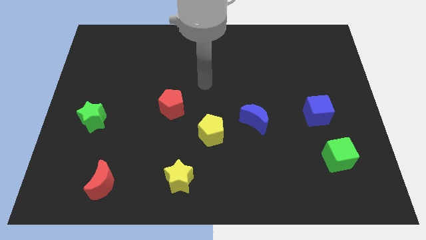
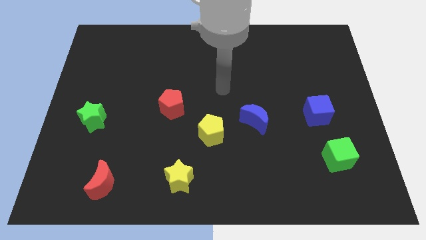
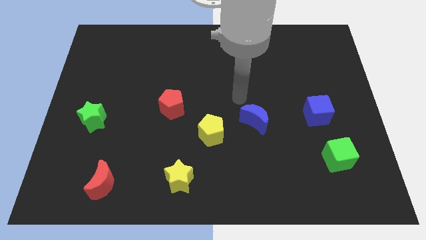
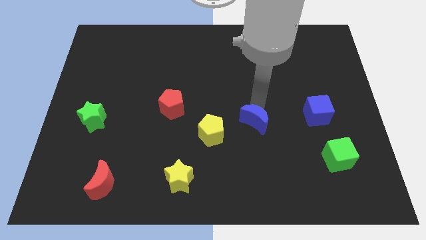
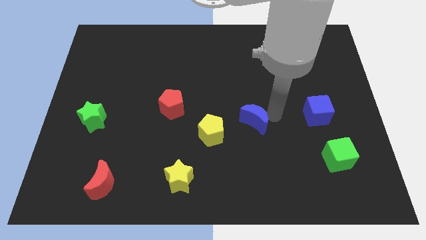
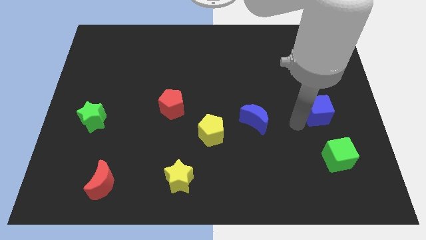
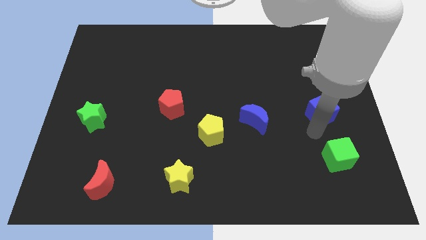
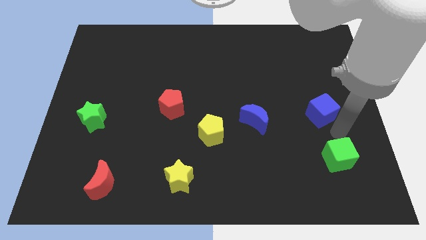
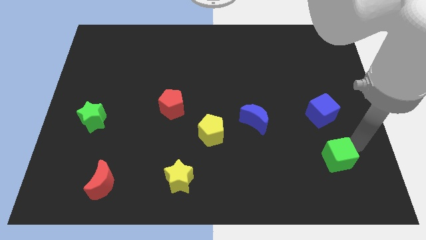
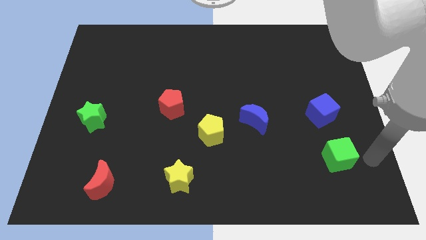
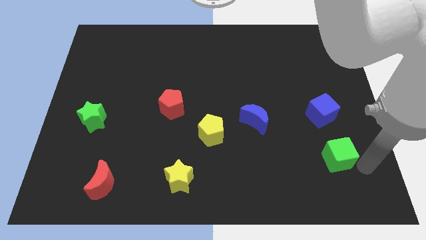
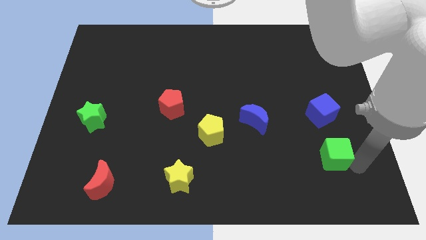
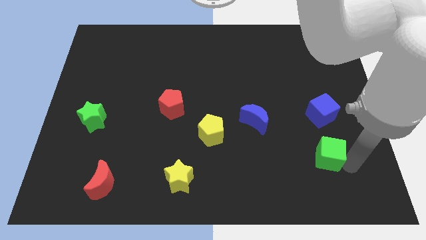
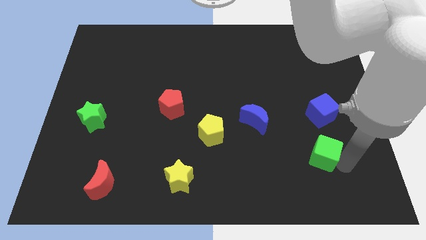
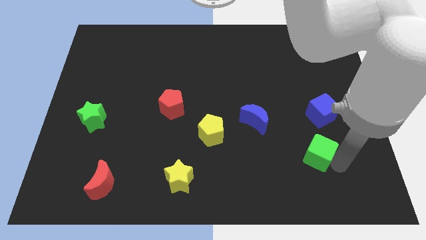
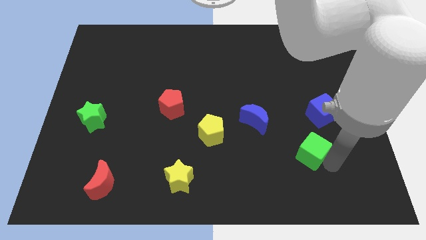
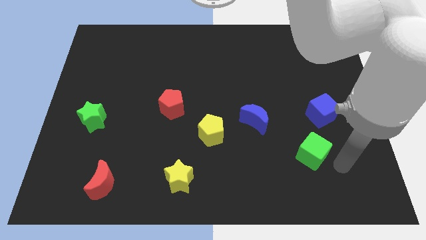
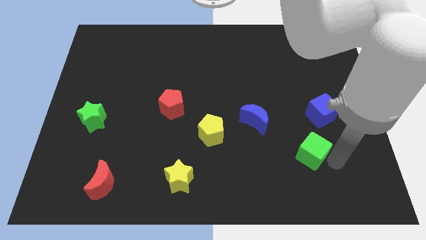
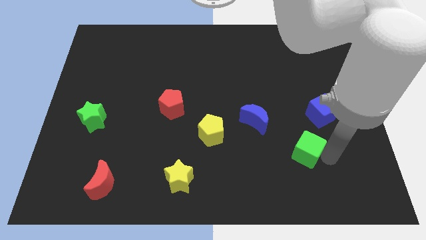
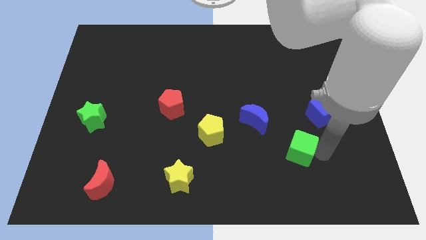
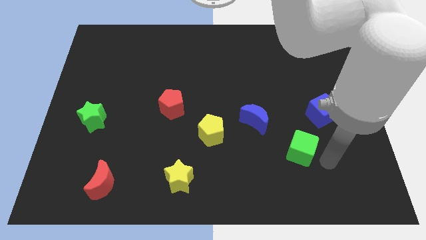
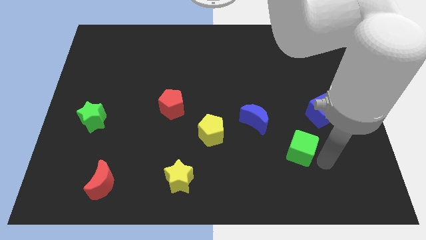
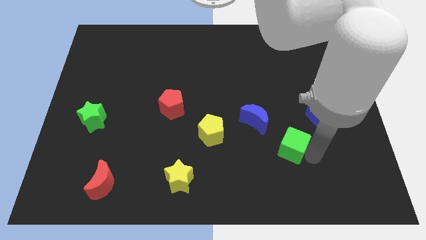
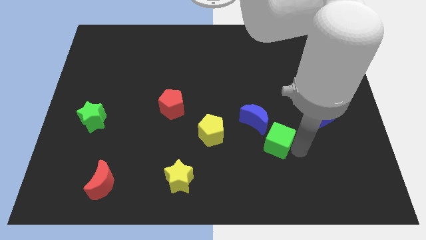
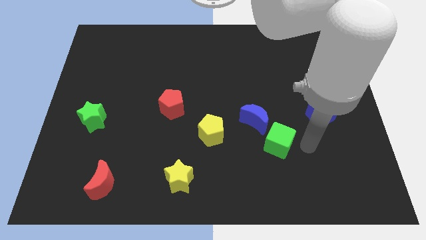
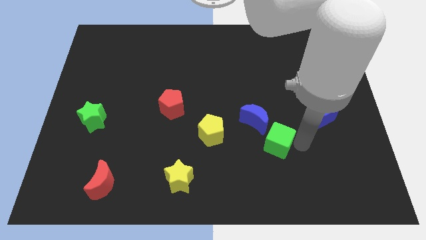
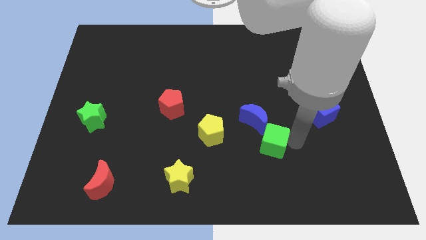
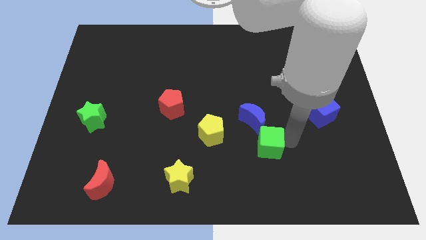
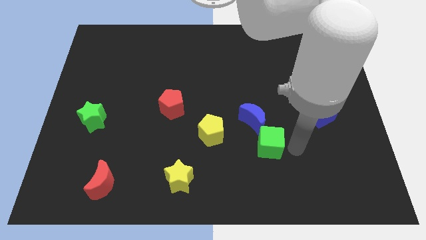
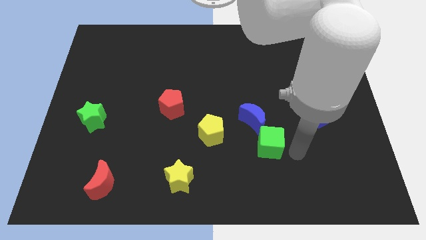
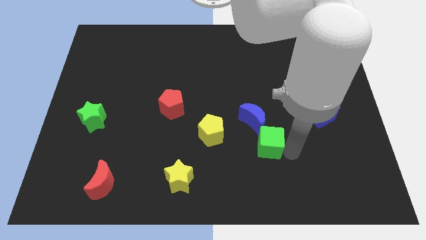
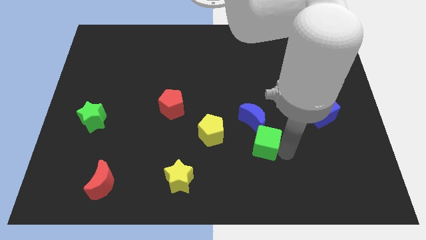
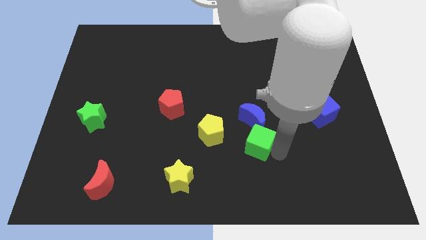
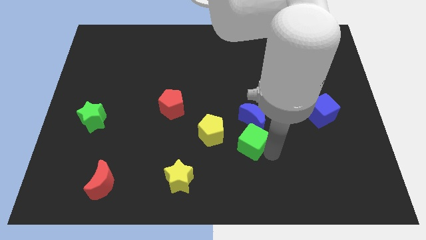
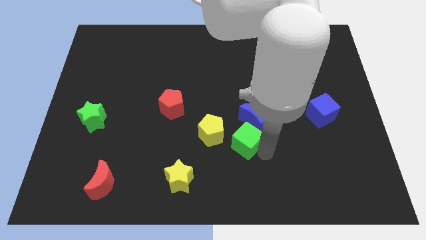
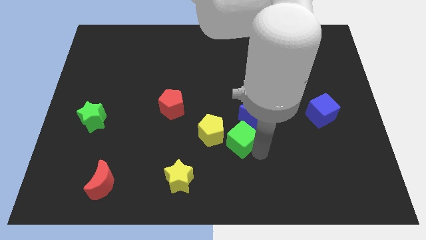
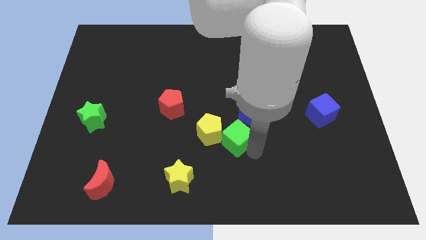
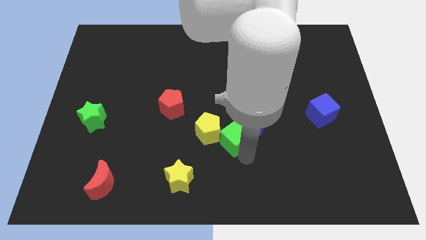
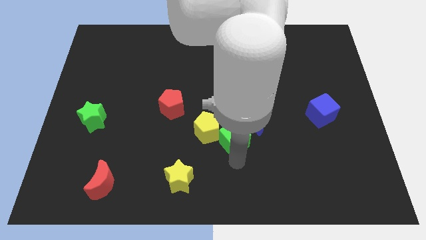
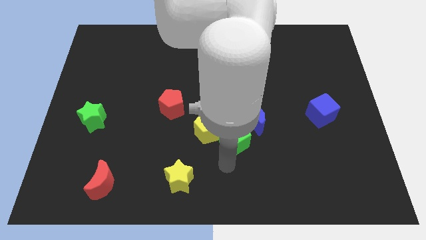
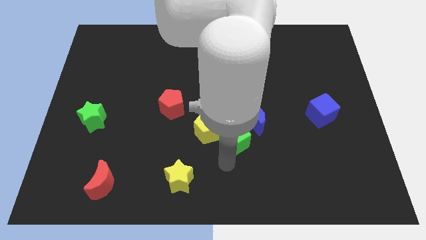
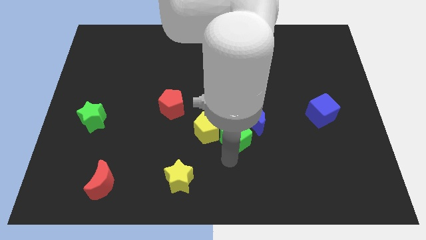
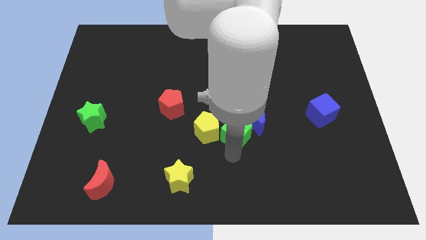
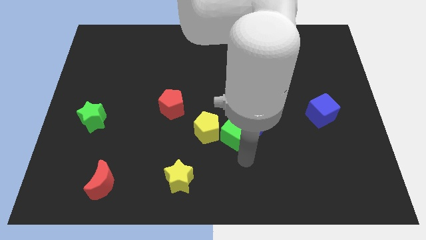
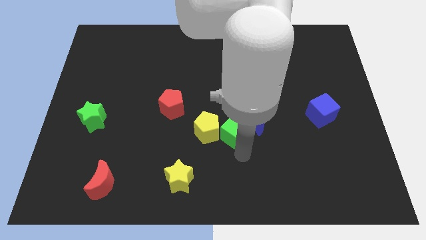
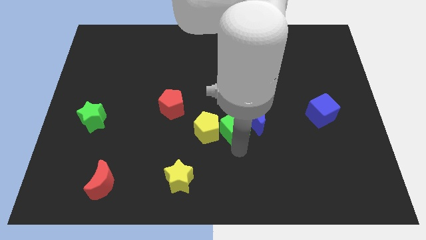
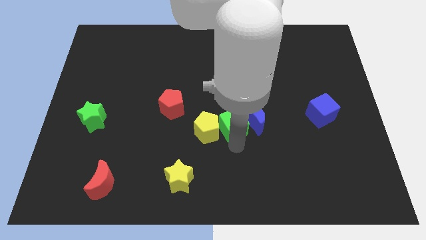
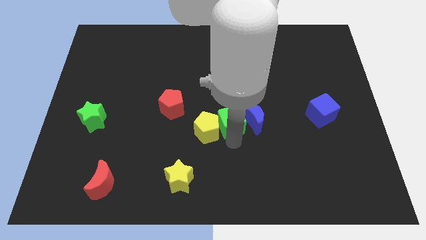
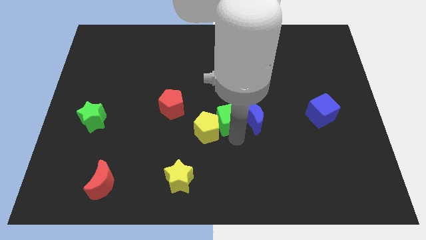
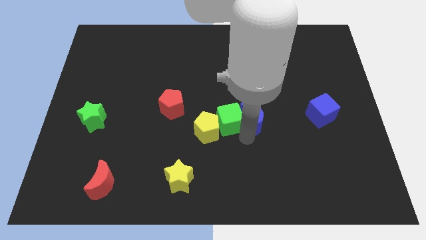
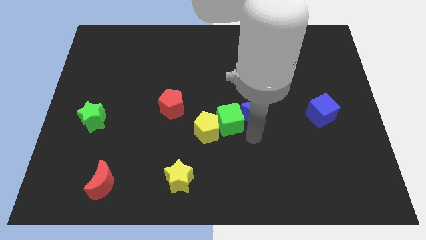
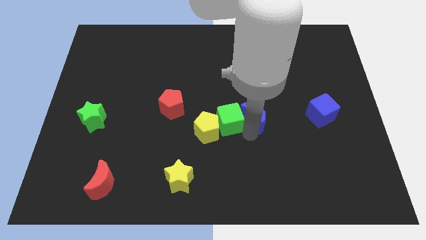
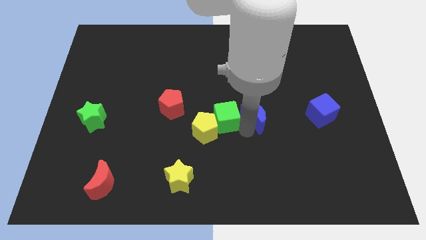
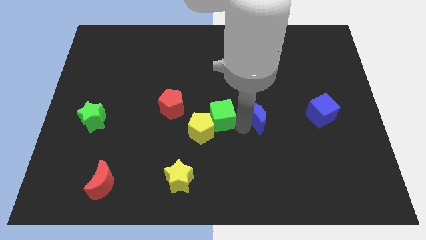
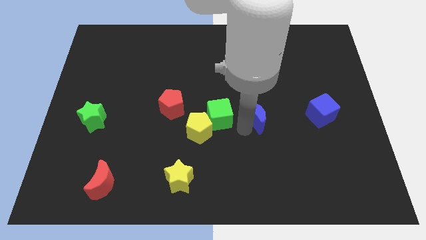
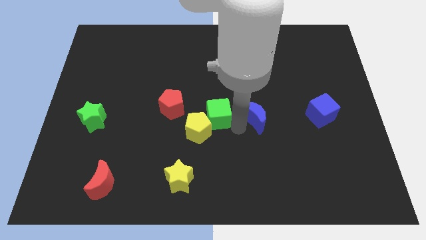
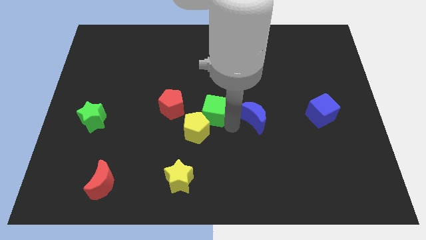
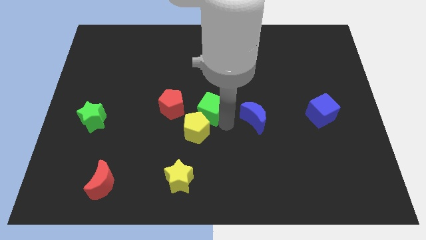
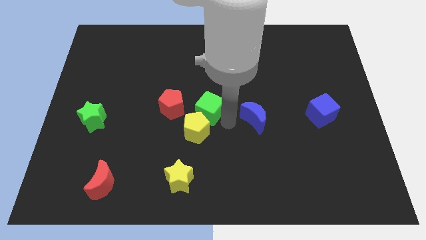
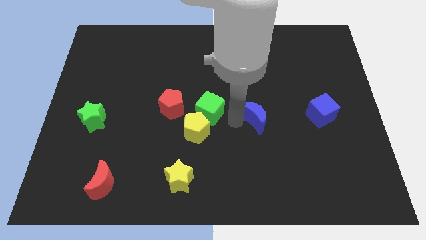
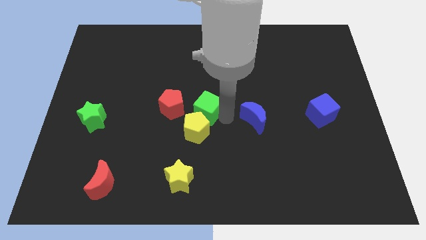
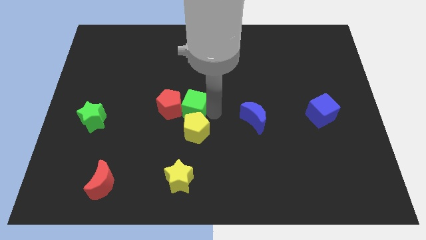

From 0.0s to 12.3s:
slide the green cube next to the red pentagon

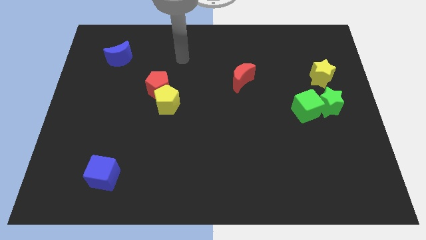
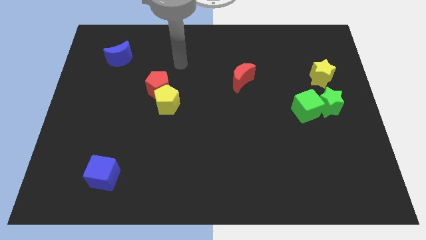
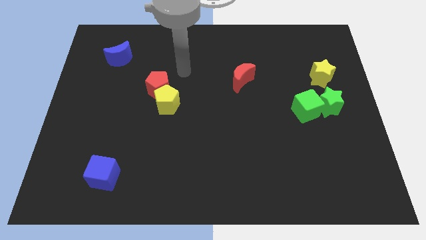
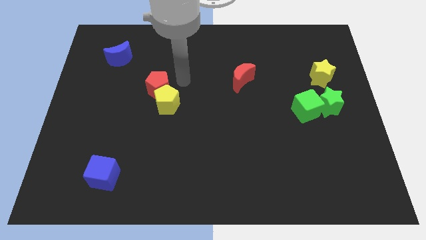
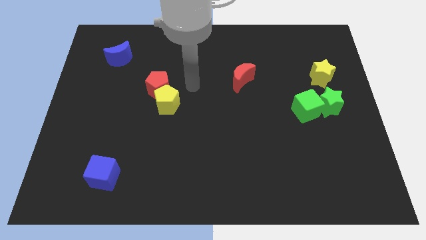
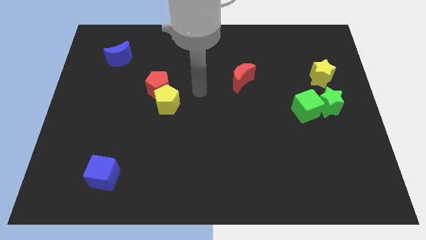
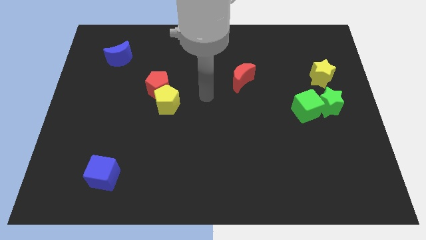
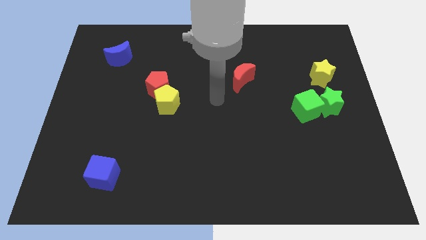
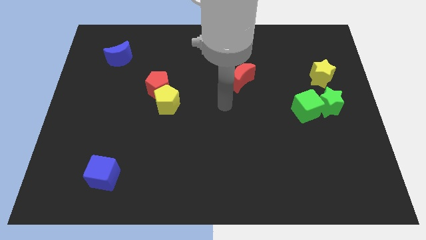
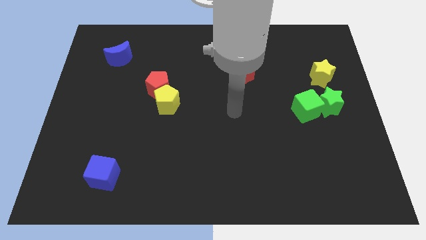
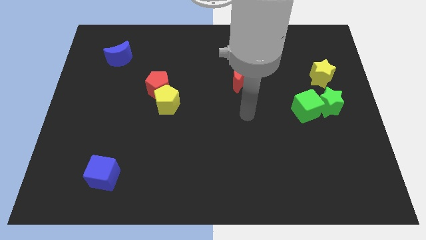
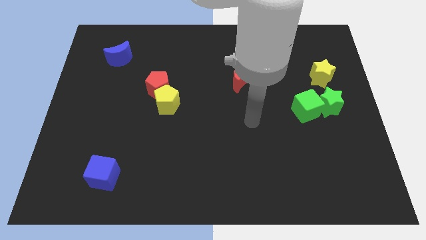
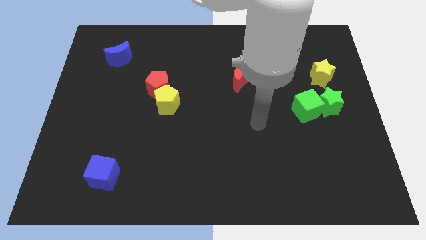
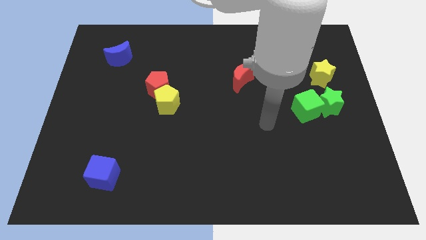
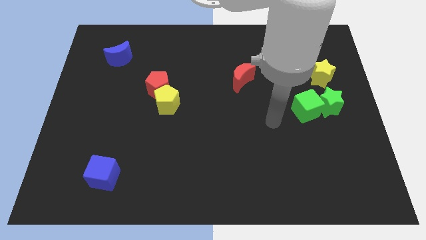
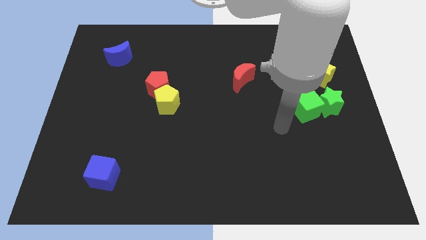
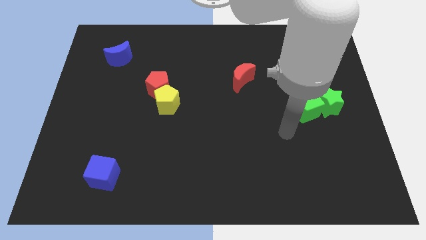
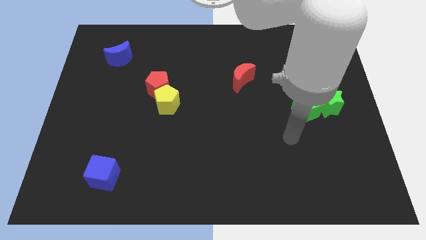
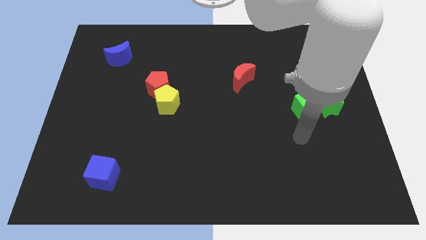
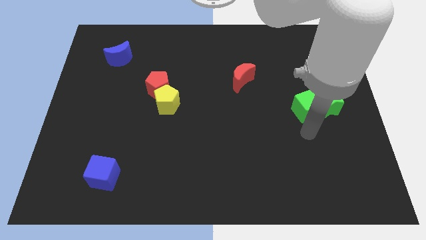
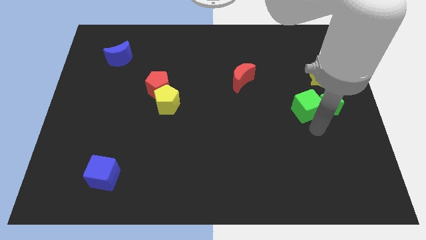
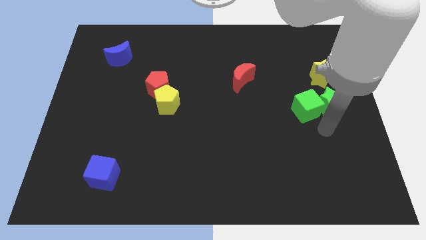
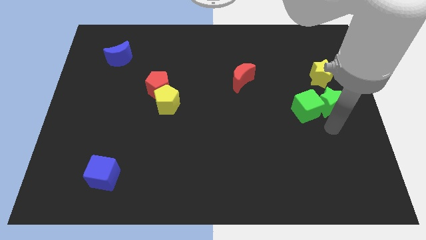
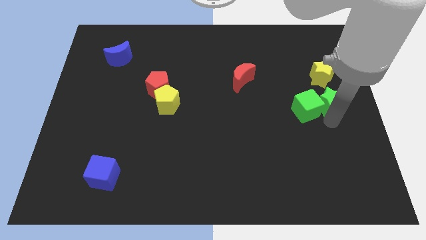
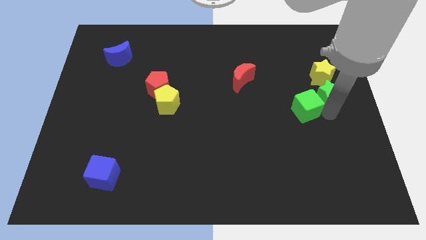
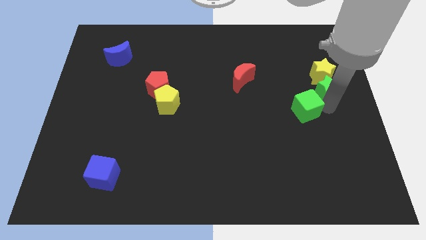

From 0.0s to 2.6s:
slide the green star next to the yellow star
